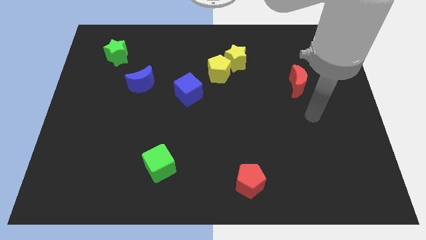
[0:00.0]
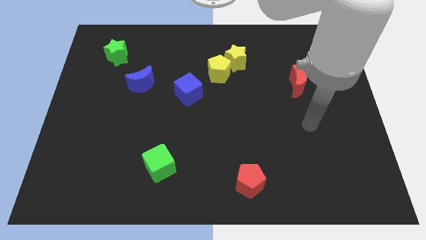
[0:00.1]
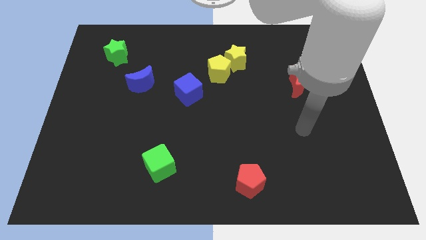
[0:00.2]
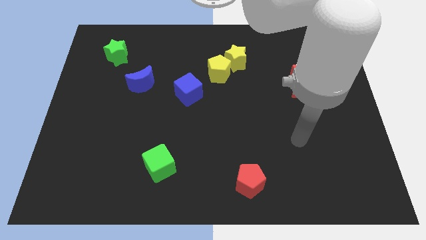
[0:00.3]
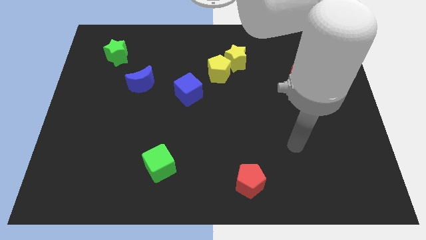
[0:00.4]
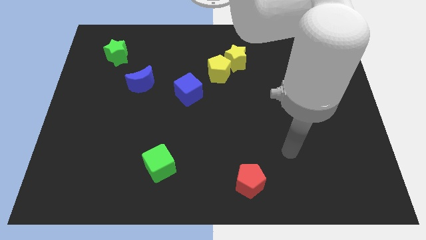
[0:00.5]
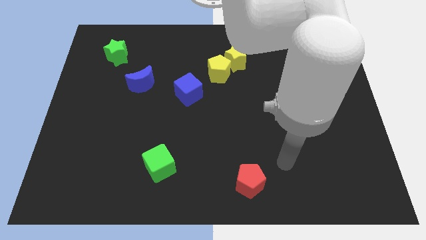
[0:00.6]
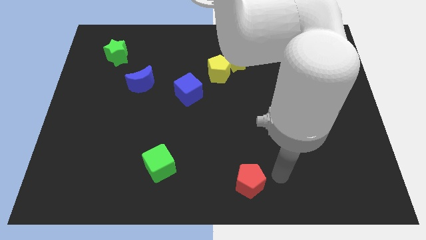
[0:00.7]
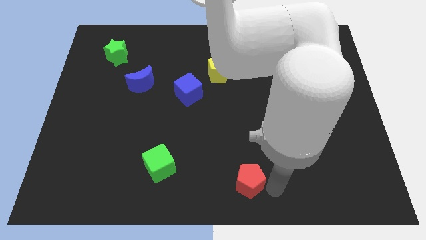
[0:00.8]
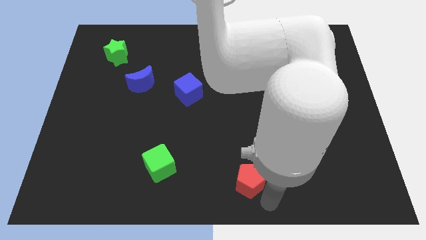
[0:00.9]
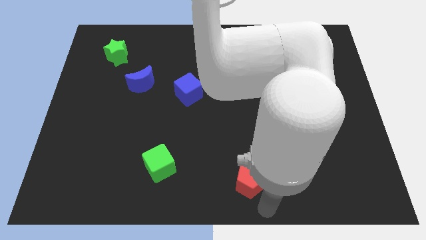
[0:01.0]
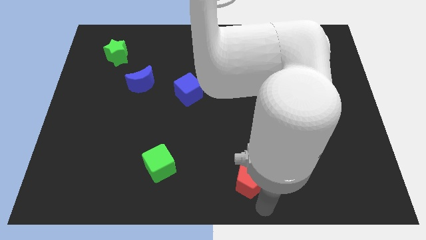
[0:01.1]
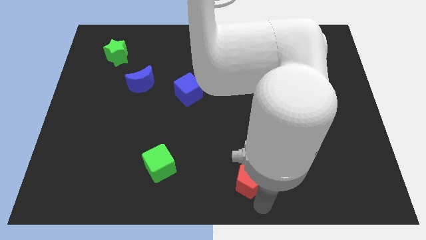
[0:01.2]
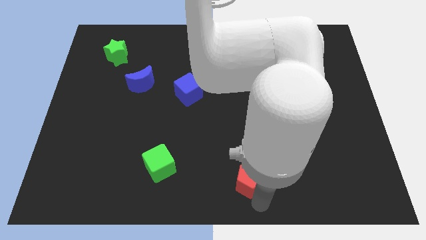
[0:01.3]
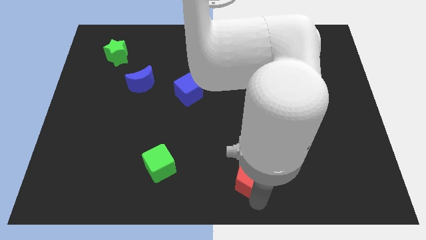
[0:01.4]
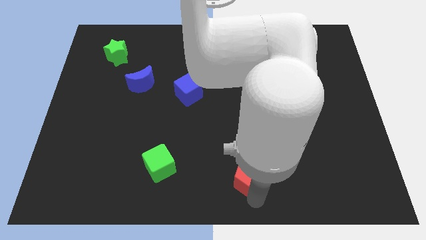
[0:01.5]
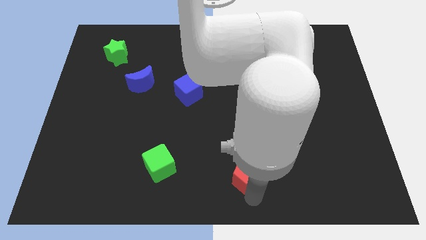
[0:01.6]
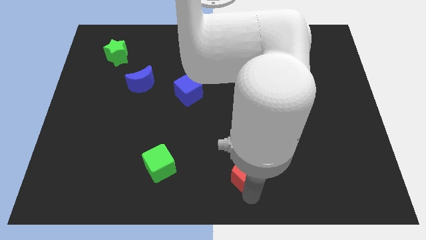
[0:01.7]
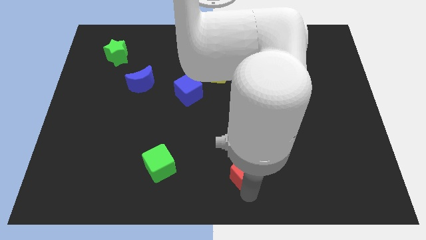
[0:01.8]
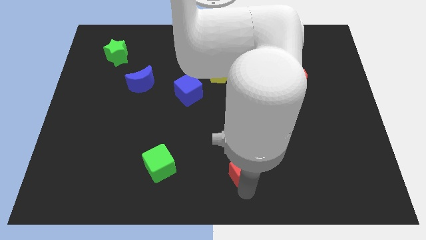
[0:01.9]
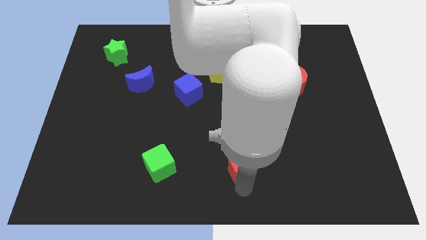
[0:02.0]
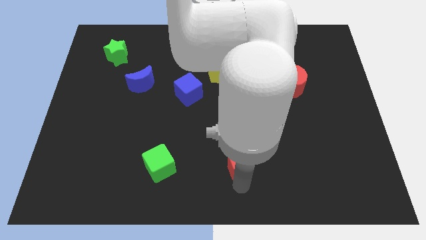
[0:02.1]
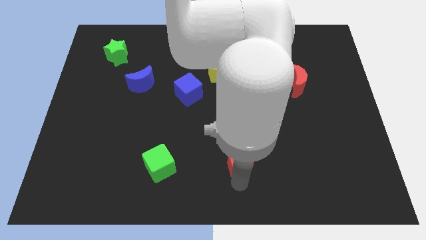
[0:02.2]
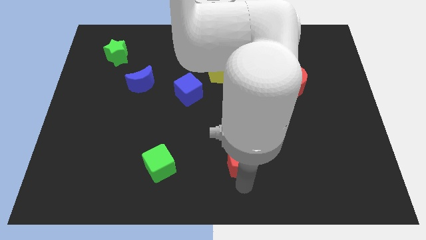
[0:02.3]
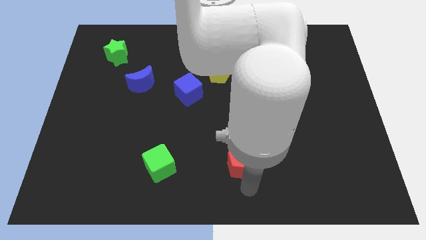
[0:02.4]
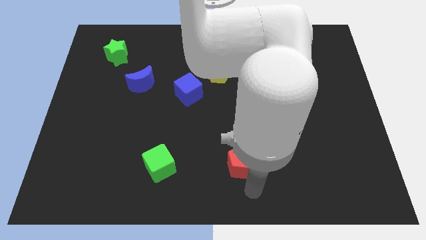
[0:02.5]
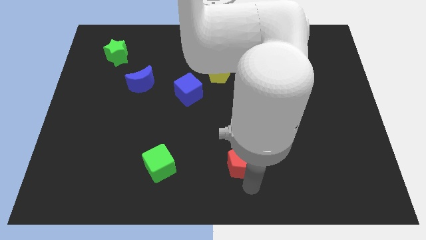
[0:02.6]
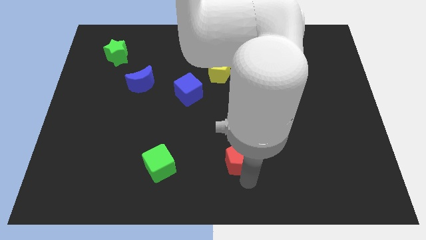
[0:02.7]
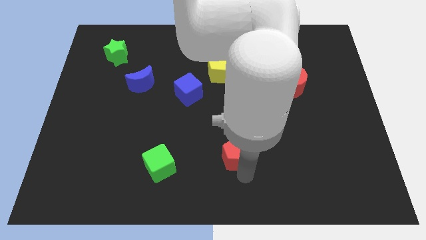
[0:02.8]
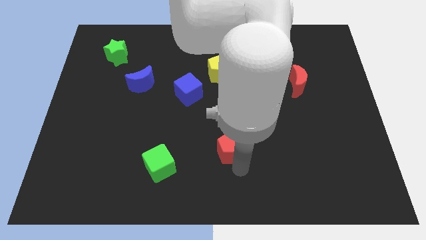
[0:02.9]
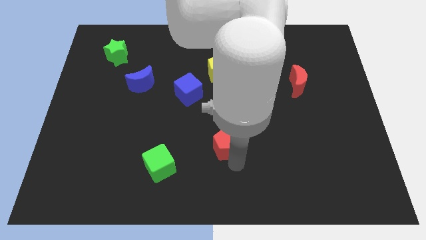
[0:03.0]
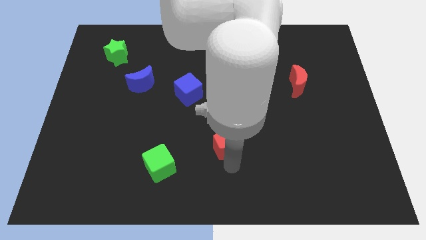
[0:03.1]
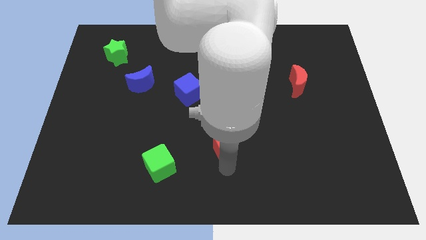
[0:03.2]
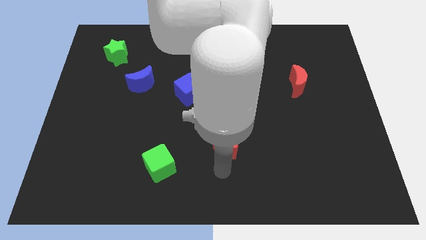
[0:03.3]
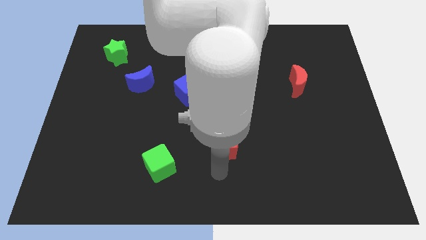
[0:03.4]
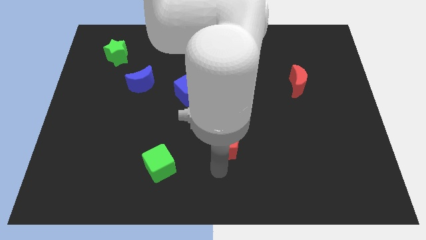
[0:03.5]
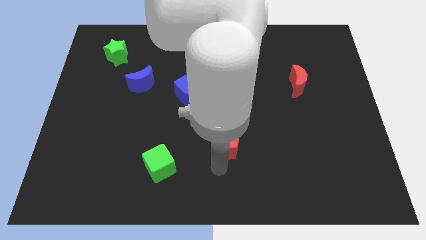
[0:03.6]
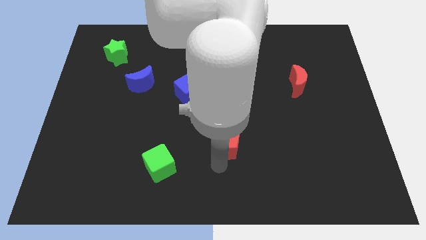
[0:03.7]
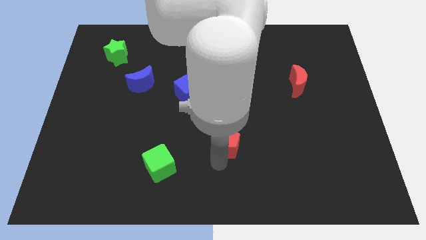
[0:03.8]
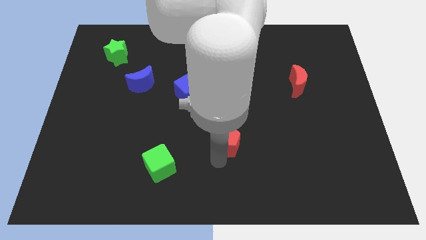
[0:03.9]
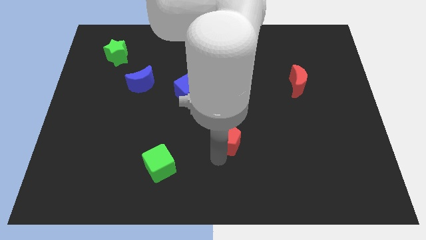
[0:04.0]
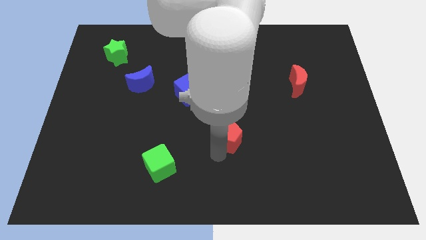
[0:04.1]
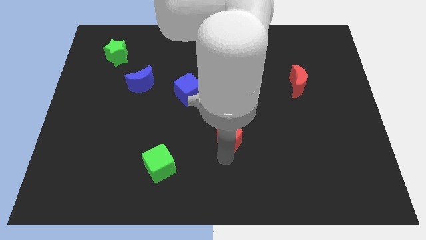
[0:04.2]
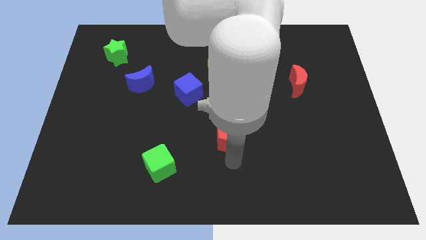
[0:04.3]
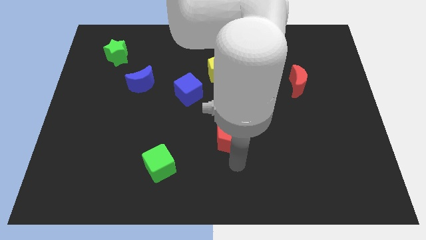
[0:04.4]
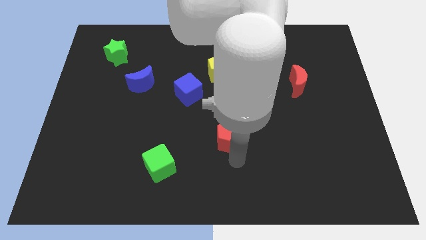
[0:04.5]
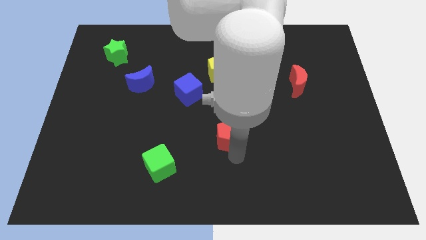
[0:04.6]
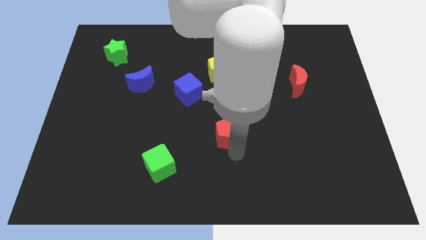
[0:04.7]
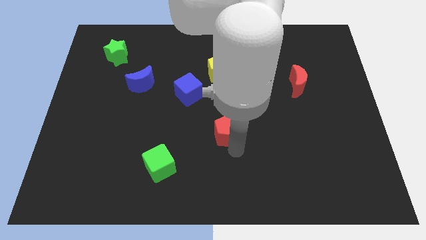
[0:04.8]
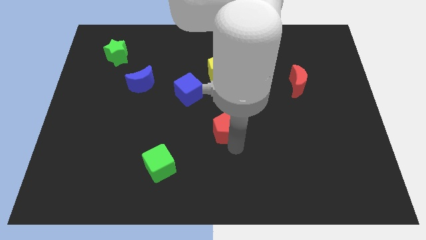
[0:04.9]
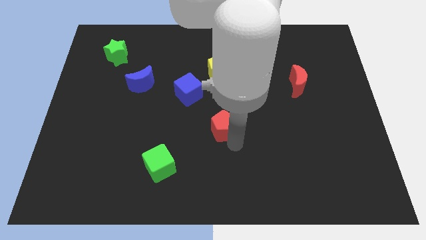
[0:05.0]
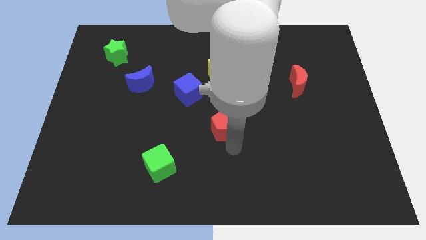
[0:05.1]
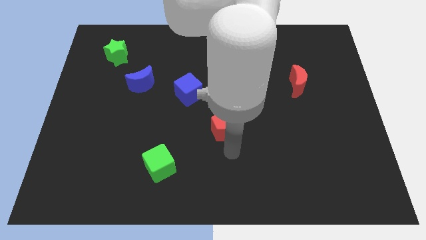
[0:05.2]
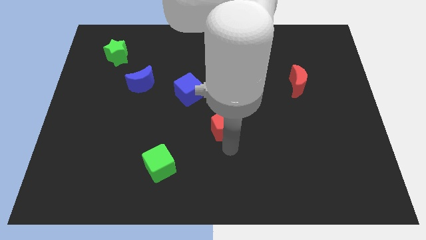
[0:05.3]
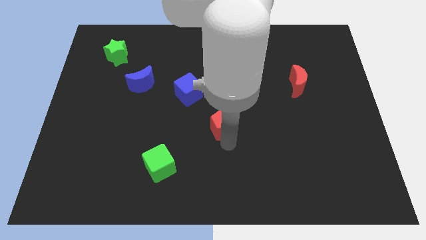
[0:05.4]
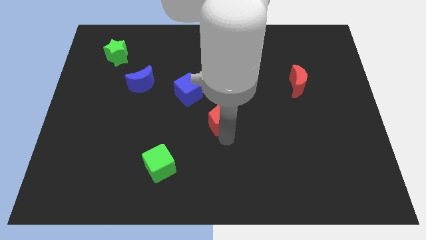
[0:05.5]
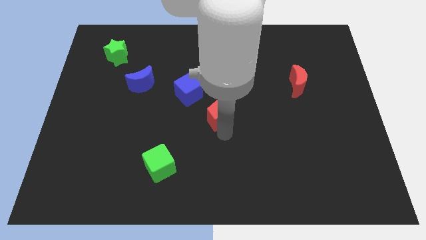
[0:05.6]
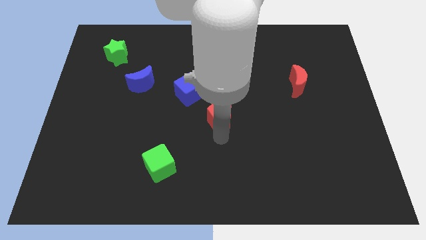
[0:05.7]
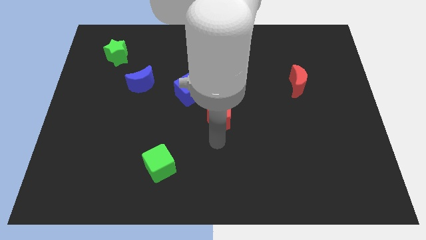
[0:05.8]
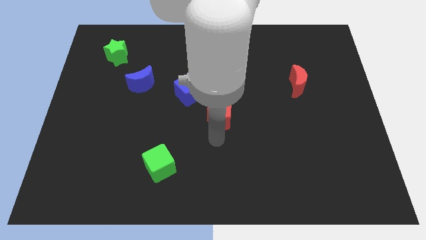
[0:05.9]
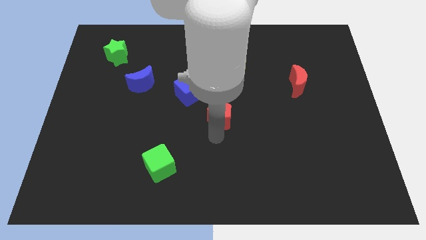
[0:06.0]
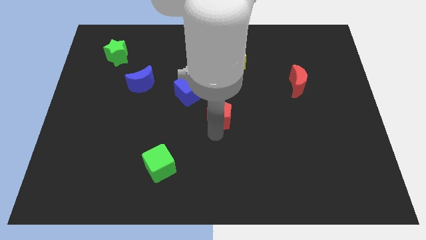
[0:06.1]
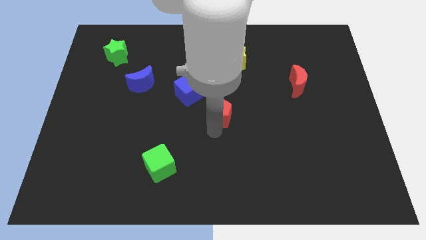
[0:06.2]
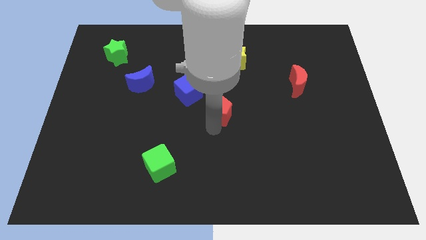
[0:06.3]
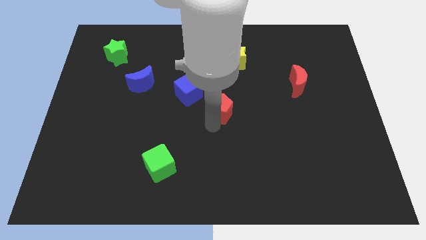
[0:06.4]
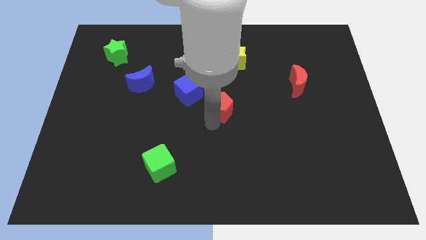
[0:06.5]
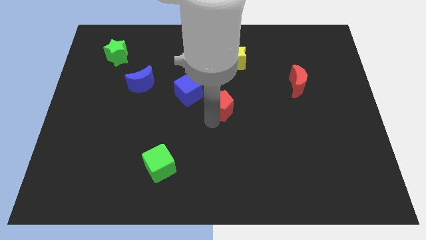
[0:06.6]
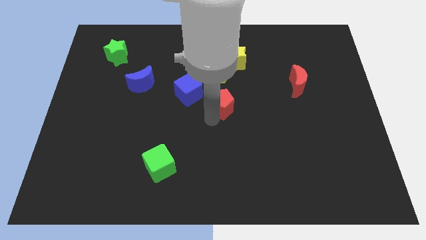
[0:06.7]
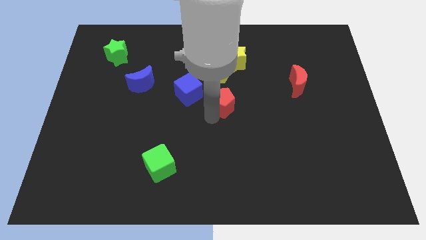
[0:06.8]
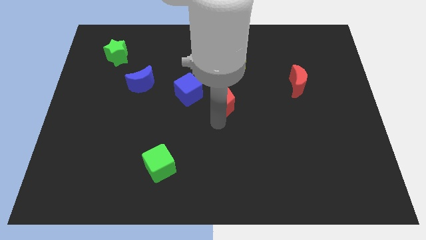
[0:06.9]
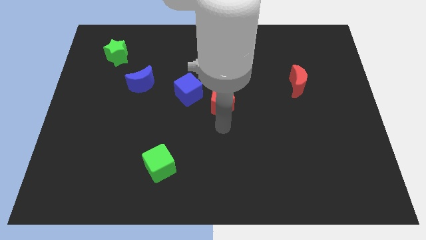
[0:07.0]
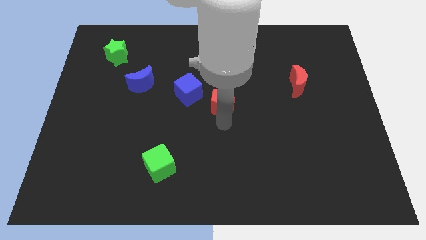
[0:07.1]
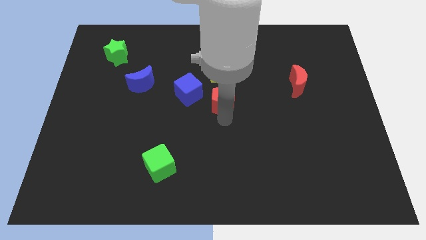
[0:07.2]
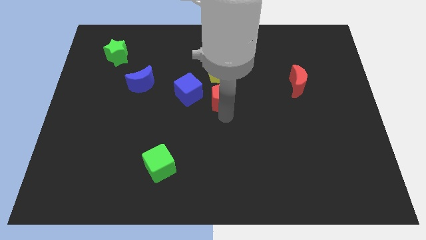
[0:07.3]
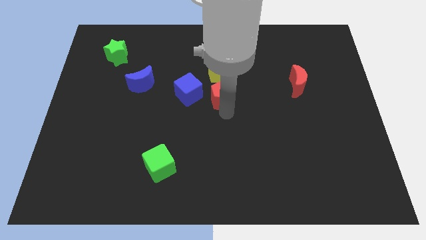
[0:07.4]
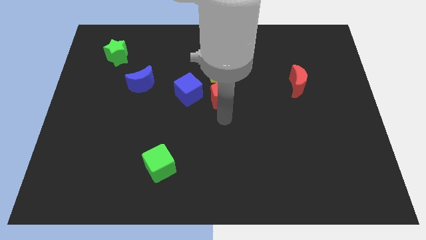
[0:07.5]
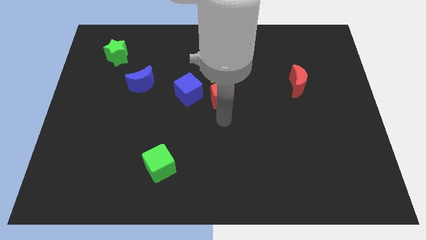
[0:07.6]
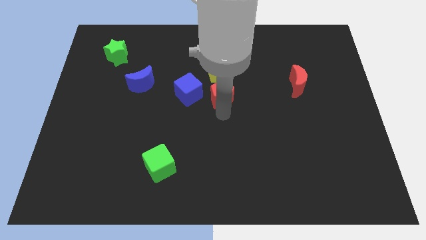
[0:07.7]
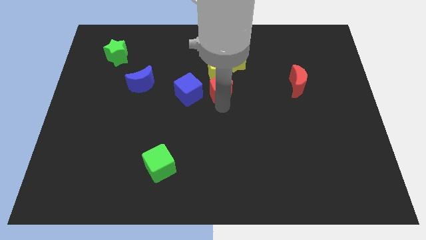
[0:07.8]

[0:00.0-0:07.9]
move the red pentagon close to the yellow pentagon
